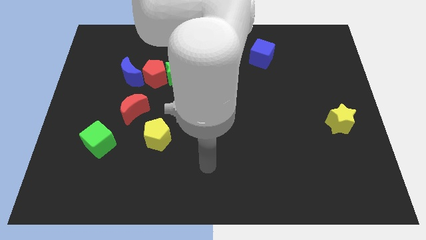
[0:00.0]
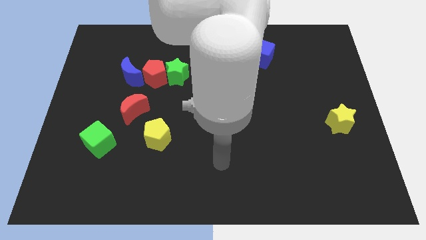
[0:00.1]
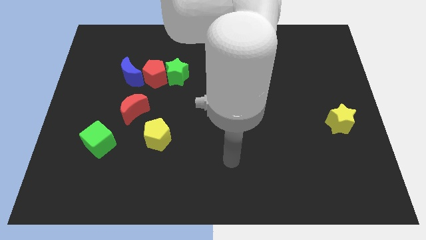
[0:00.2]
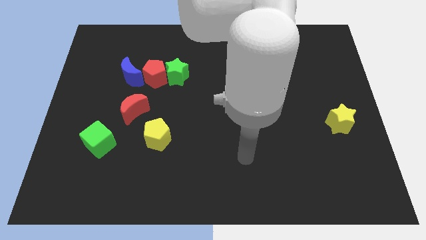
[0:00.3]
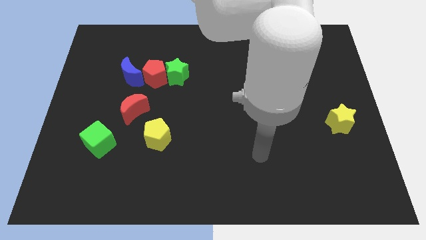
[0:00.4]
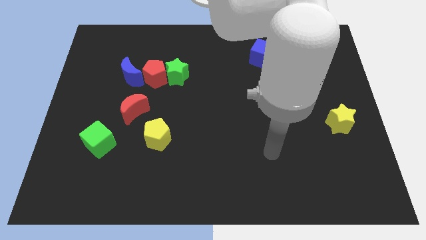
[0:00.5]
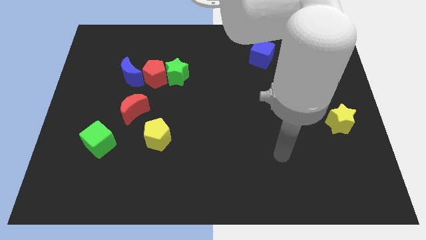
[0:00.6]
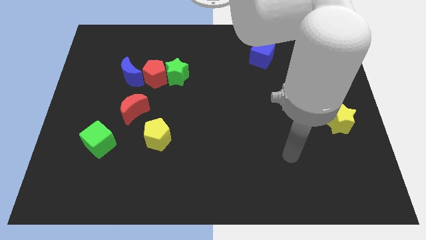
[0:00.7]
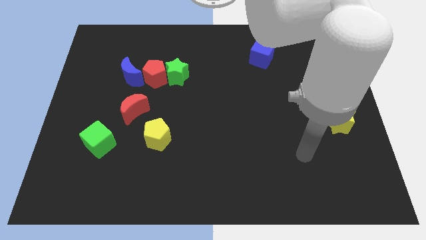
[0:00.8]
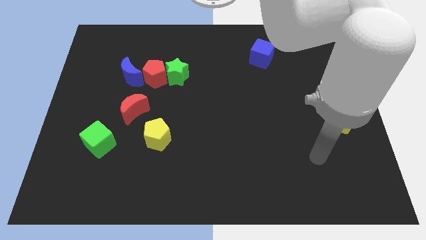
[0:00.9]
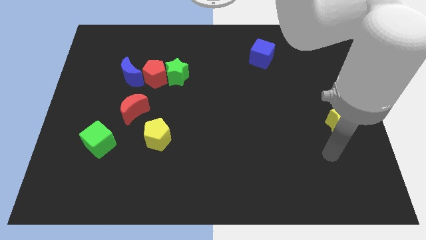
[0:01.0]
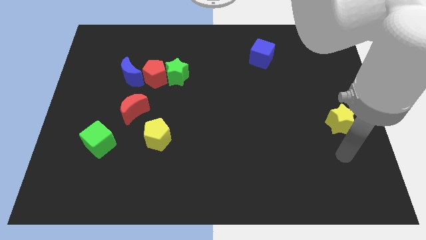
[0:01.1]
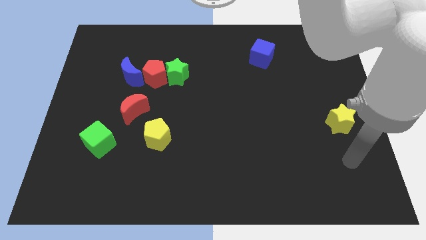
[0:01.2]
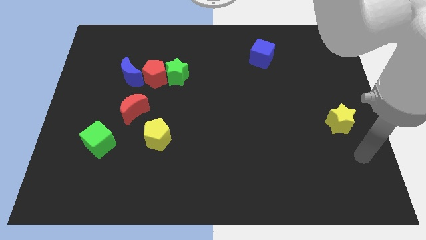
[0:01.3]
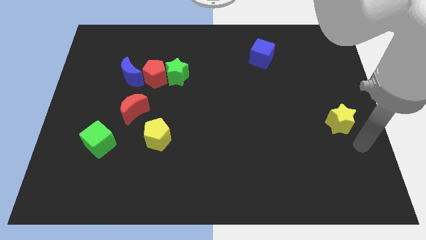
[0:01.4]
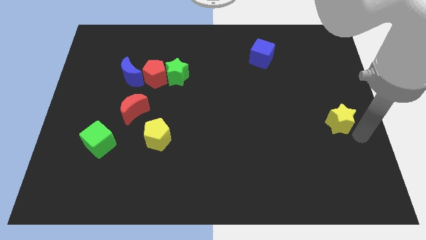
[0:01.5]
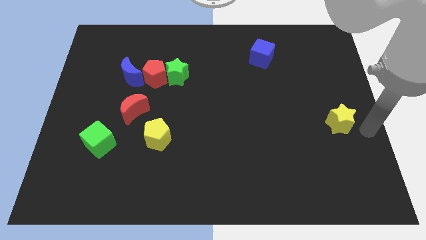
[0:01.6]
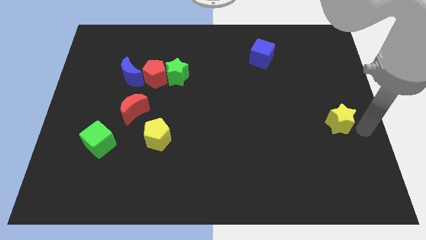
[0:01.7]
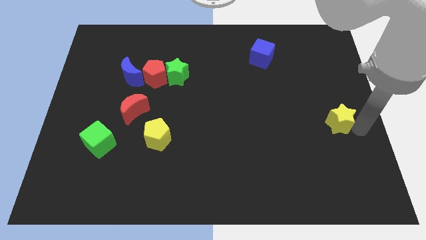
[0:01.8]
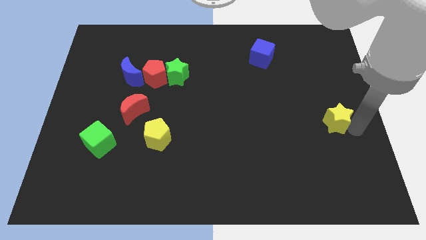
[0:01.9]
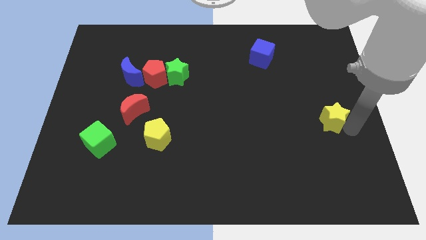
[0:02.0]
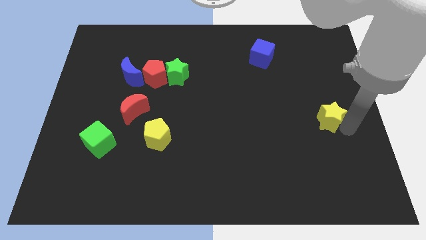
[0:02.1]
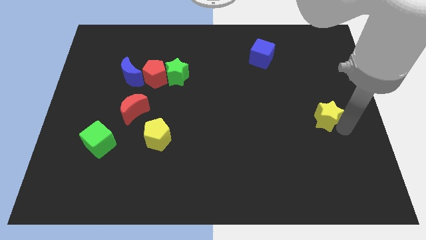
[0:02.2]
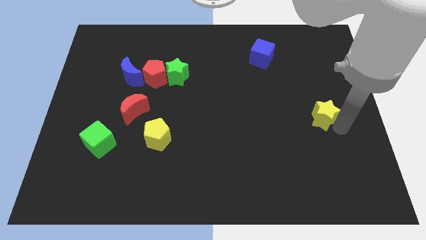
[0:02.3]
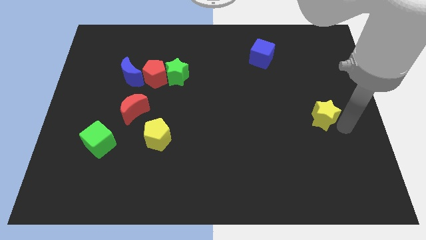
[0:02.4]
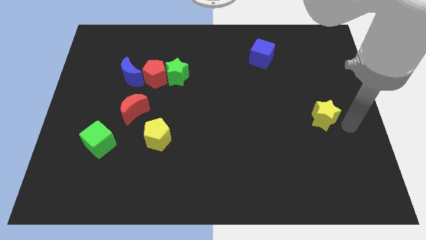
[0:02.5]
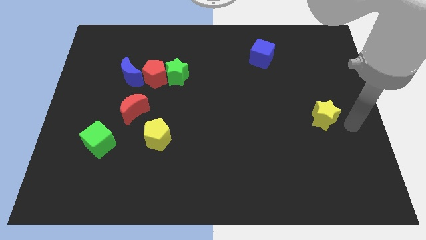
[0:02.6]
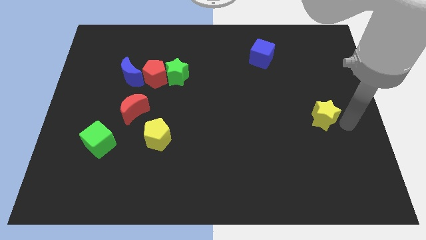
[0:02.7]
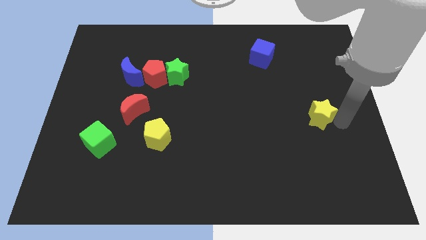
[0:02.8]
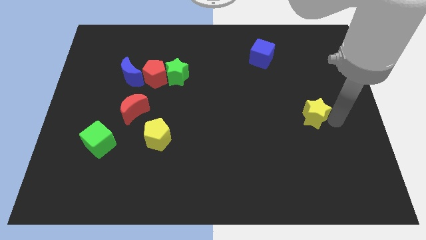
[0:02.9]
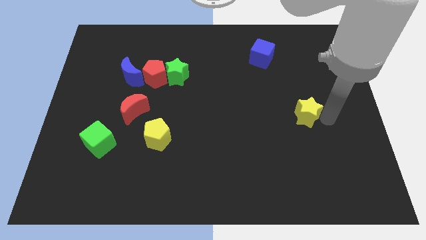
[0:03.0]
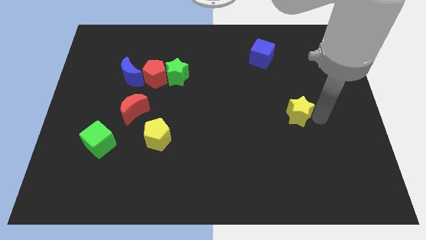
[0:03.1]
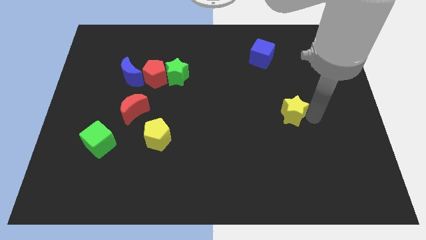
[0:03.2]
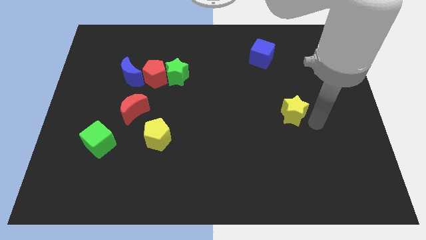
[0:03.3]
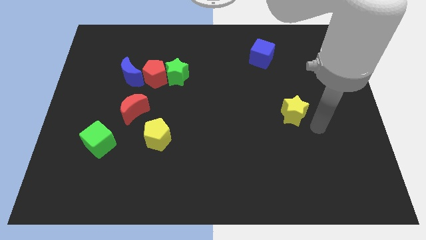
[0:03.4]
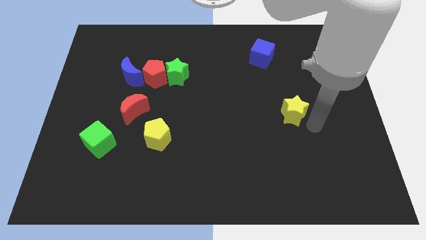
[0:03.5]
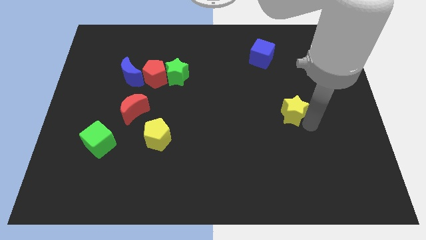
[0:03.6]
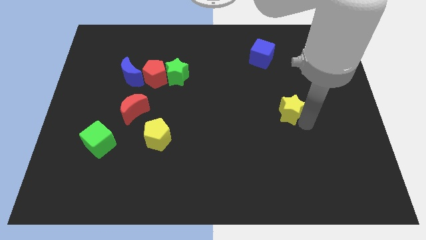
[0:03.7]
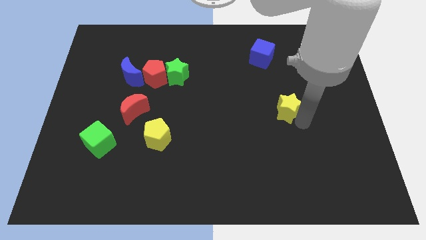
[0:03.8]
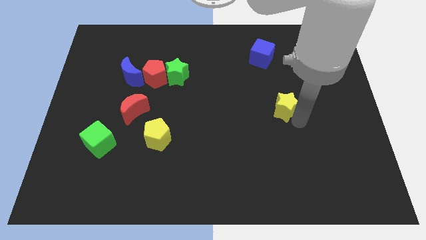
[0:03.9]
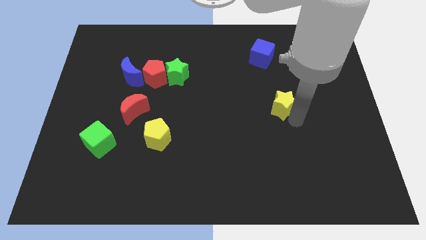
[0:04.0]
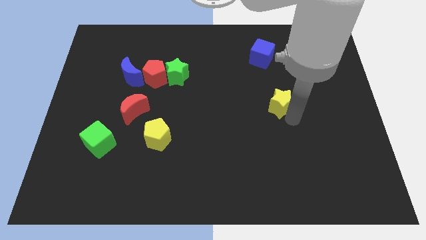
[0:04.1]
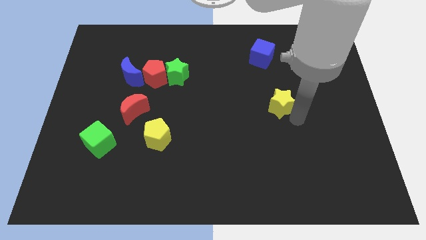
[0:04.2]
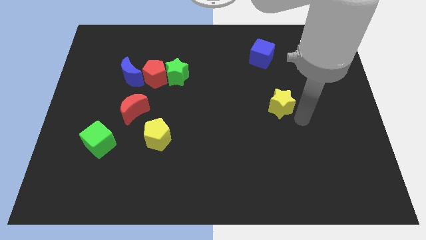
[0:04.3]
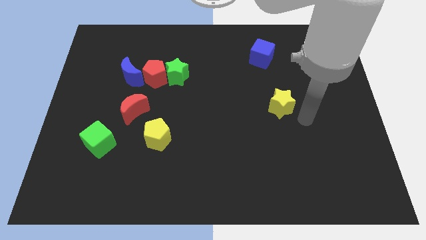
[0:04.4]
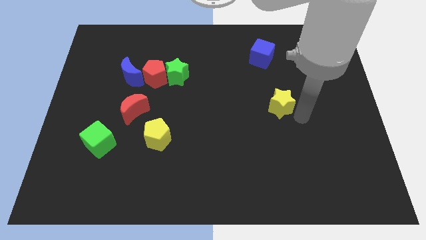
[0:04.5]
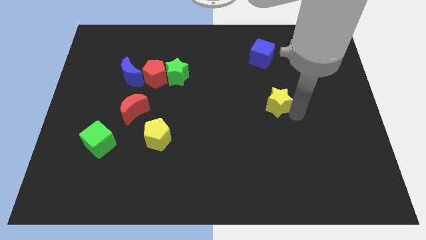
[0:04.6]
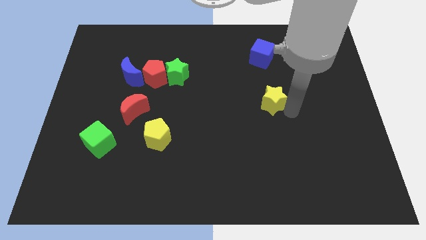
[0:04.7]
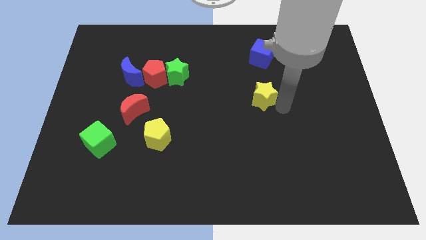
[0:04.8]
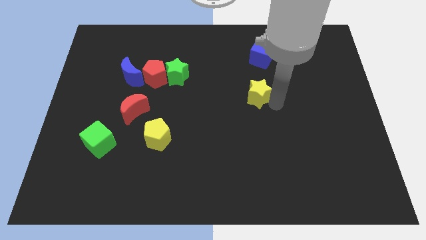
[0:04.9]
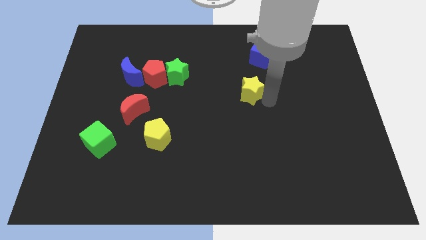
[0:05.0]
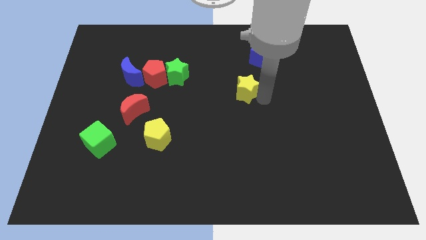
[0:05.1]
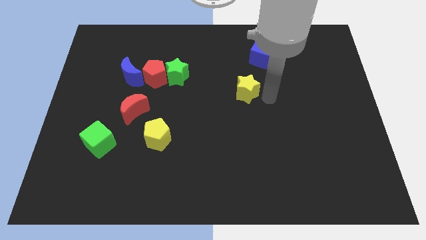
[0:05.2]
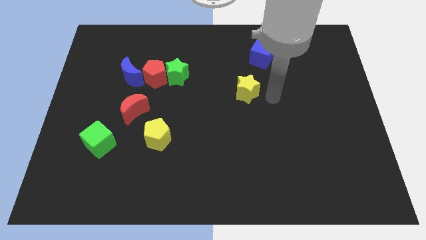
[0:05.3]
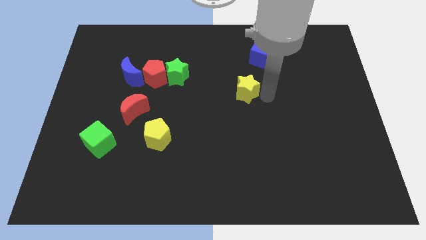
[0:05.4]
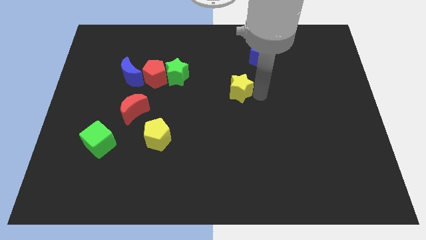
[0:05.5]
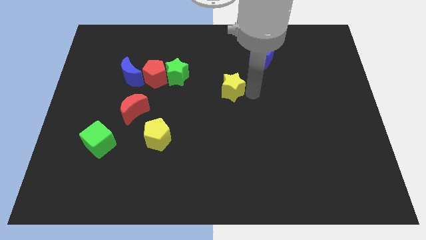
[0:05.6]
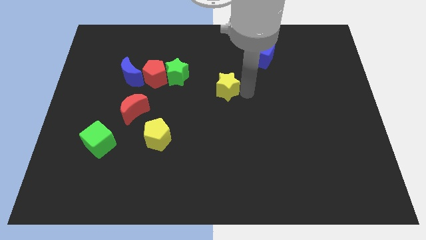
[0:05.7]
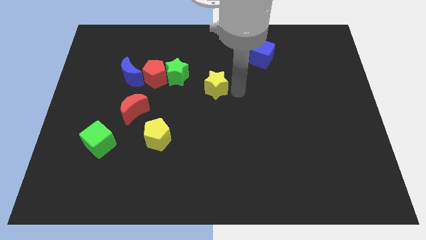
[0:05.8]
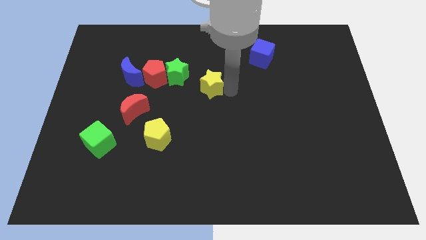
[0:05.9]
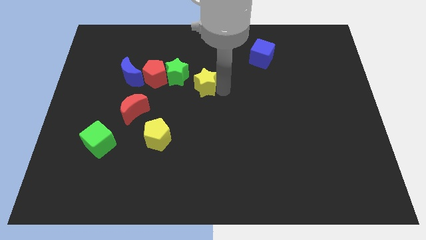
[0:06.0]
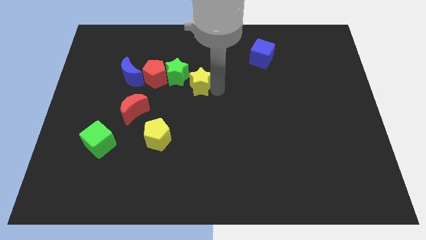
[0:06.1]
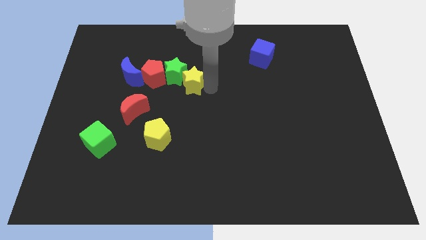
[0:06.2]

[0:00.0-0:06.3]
push the yellow star towards the green star

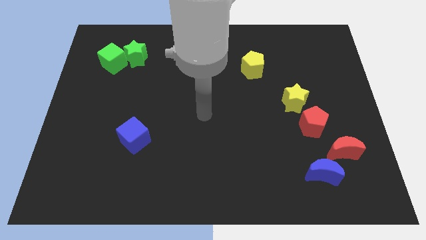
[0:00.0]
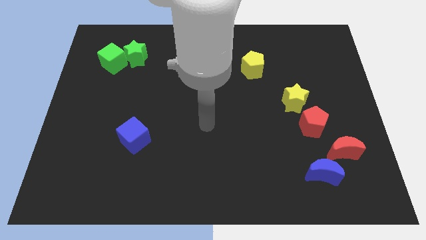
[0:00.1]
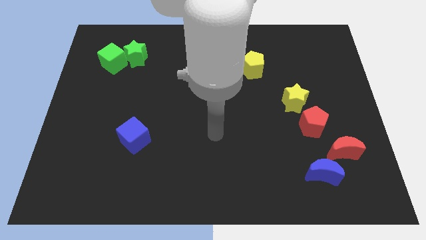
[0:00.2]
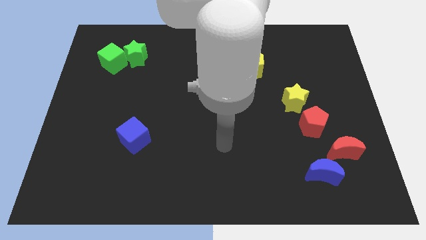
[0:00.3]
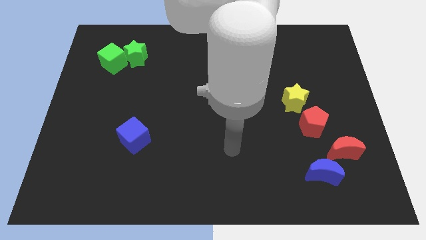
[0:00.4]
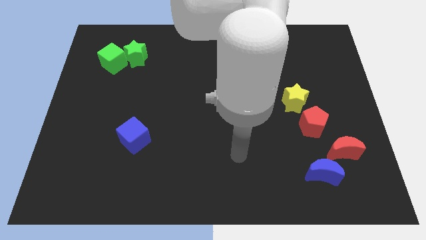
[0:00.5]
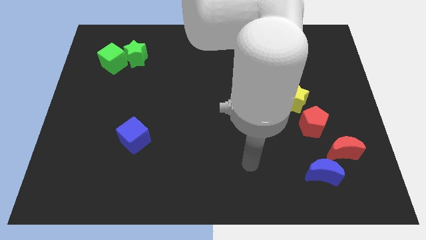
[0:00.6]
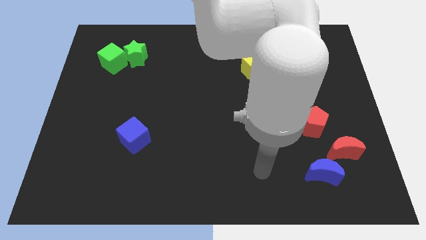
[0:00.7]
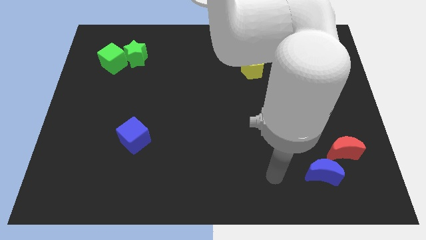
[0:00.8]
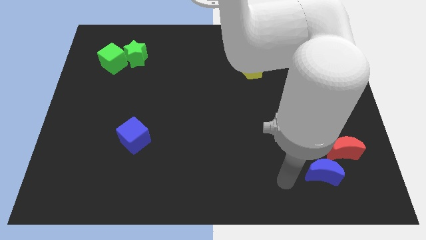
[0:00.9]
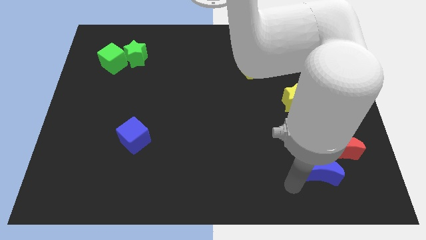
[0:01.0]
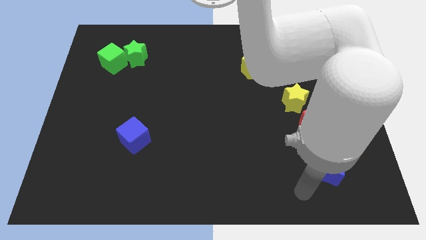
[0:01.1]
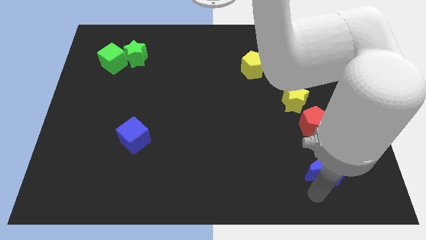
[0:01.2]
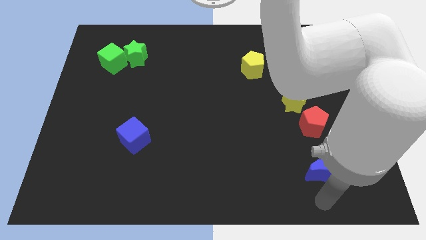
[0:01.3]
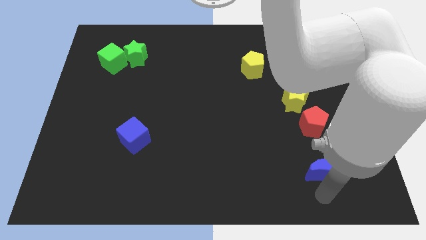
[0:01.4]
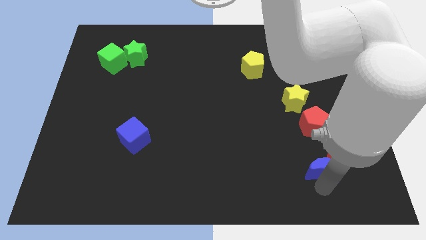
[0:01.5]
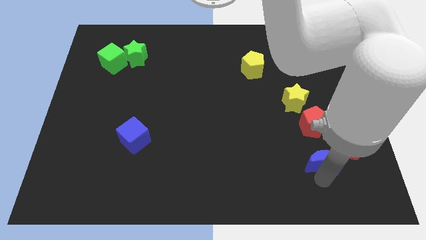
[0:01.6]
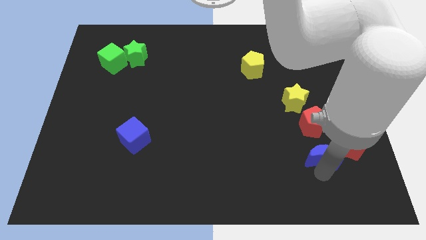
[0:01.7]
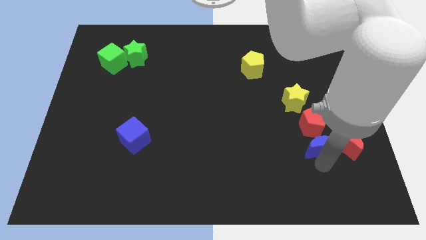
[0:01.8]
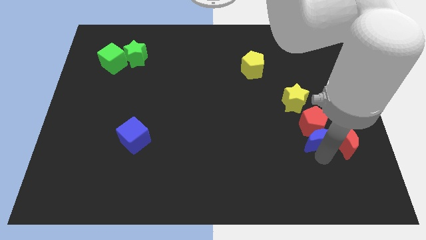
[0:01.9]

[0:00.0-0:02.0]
move the blue moon next to the red pentagon
